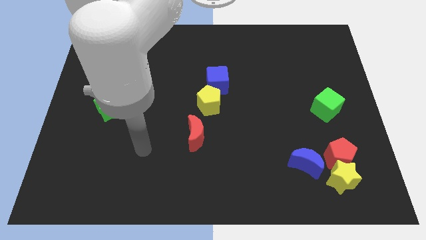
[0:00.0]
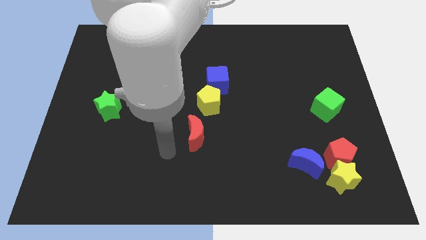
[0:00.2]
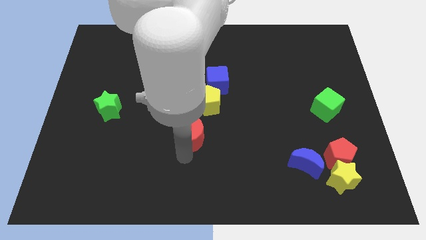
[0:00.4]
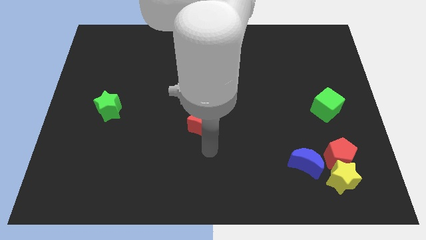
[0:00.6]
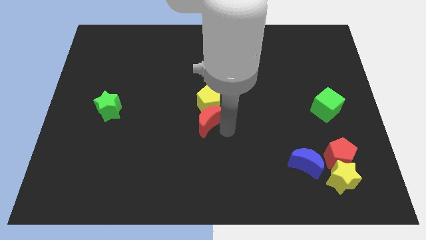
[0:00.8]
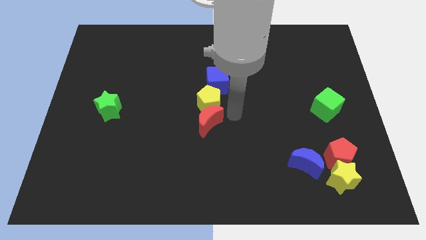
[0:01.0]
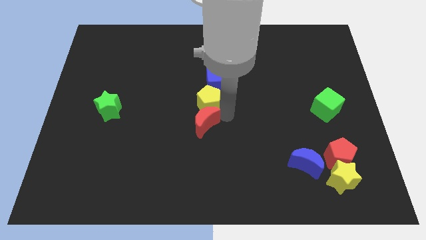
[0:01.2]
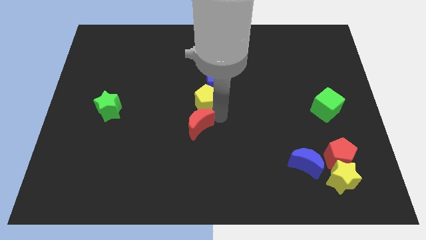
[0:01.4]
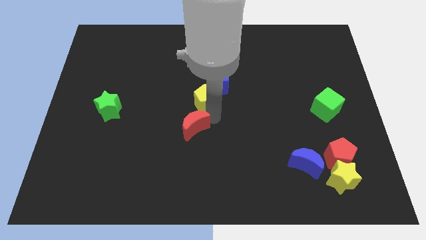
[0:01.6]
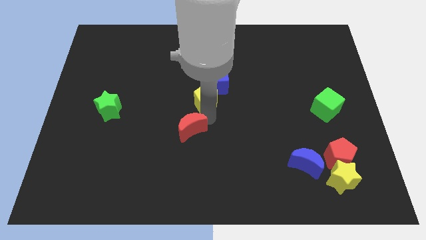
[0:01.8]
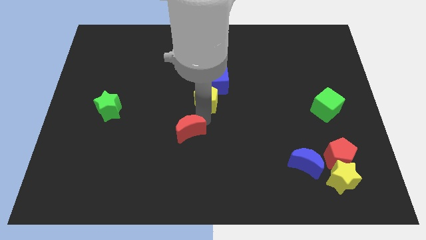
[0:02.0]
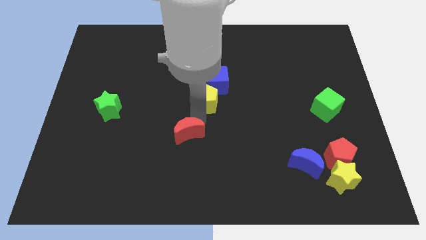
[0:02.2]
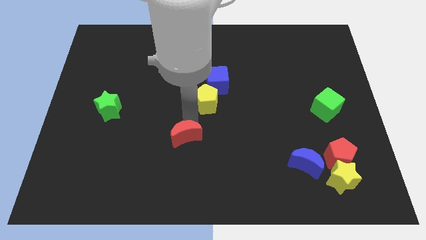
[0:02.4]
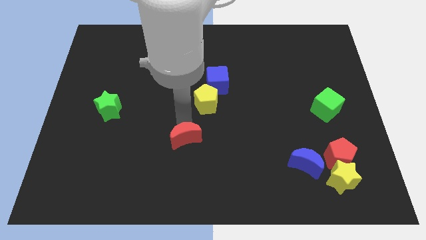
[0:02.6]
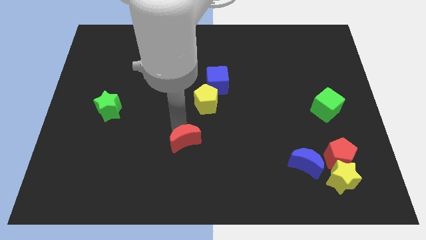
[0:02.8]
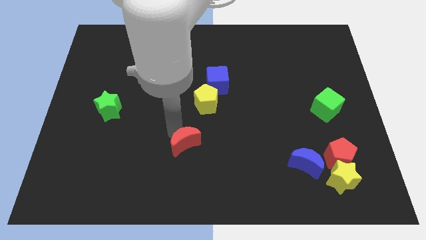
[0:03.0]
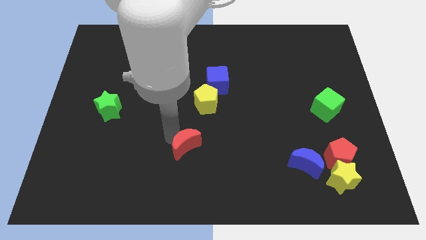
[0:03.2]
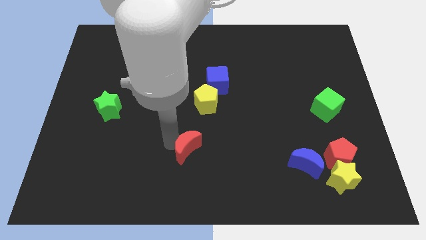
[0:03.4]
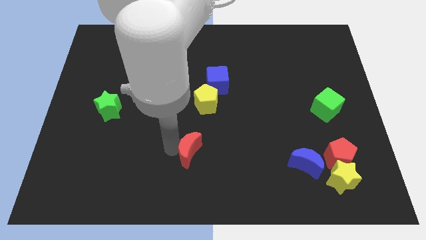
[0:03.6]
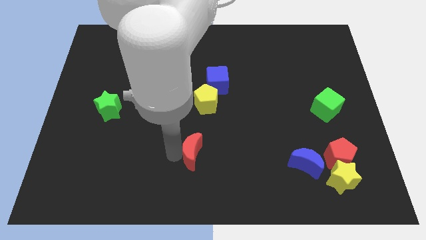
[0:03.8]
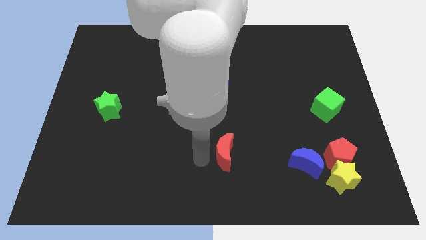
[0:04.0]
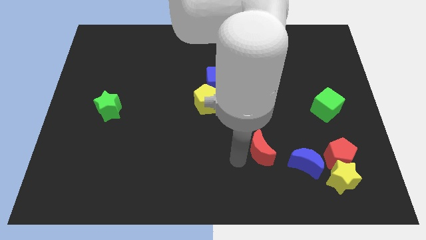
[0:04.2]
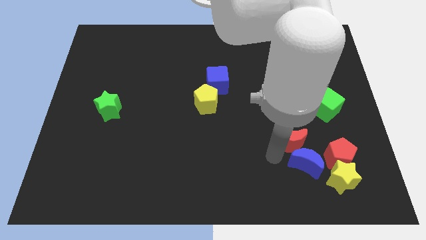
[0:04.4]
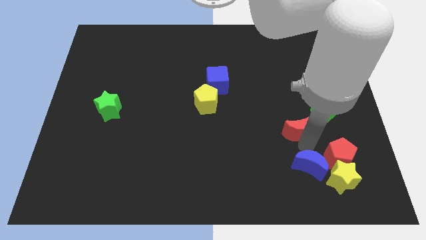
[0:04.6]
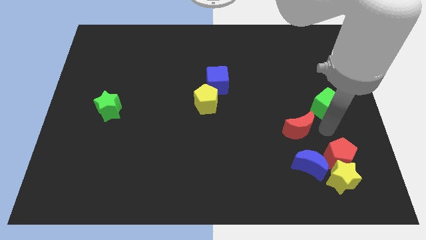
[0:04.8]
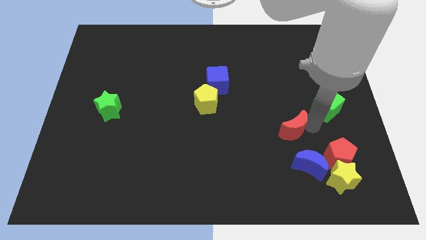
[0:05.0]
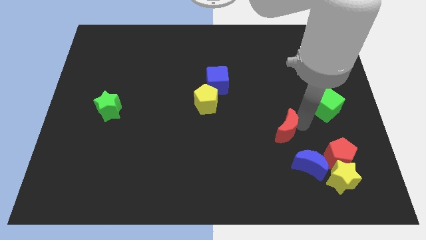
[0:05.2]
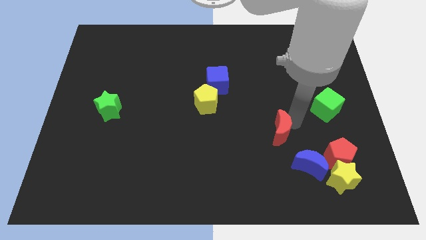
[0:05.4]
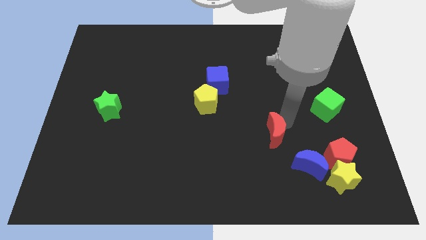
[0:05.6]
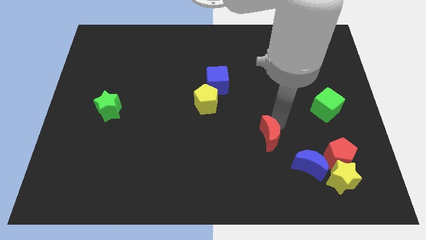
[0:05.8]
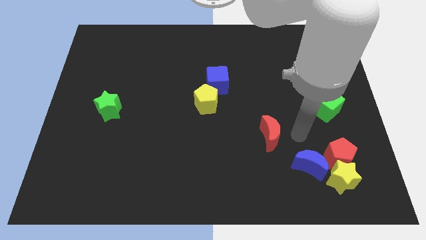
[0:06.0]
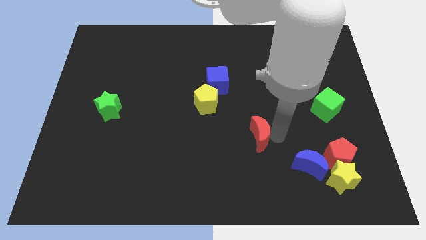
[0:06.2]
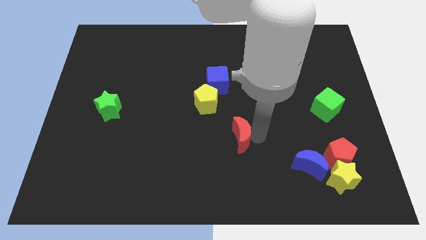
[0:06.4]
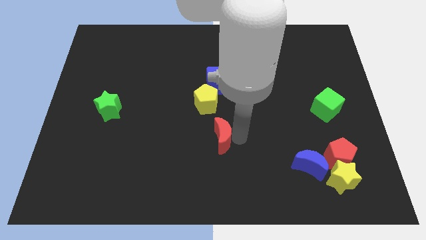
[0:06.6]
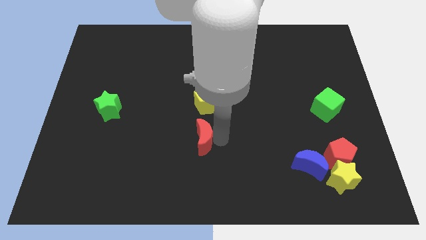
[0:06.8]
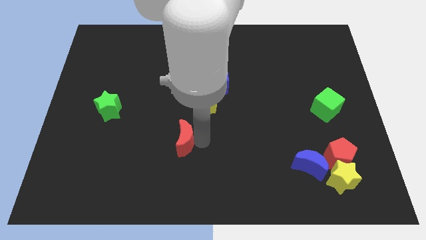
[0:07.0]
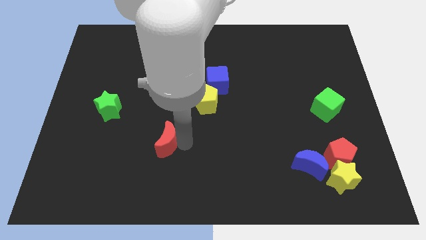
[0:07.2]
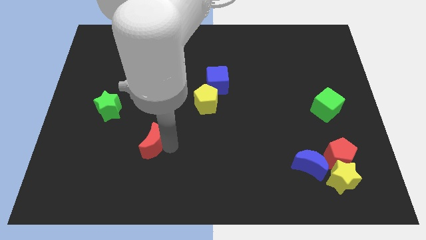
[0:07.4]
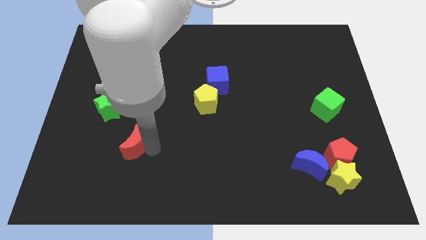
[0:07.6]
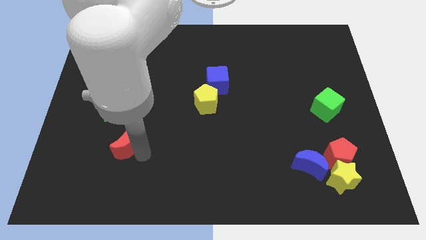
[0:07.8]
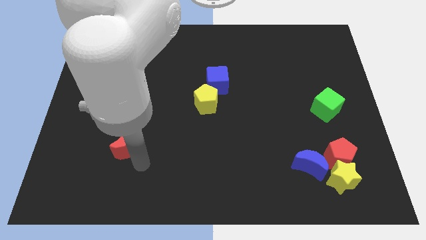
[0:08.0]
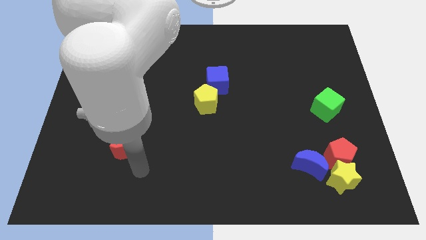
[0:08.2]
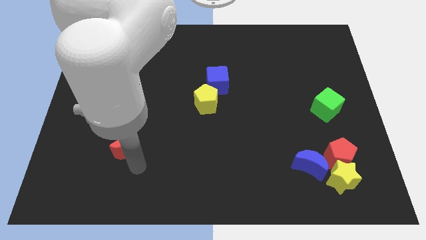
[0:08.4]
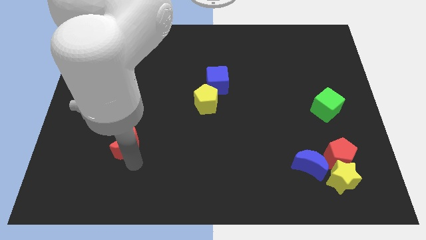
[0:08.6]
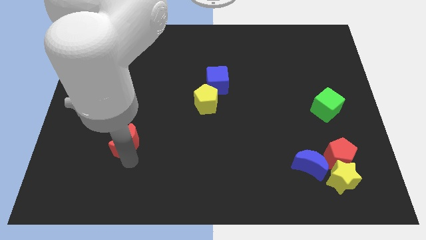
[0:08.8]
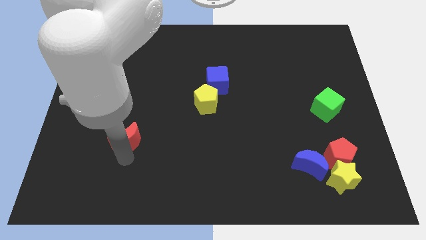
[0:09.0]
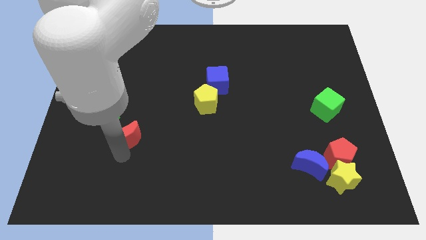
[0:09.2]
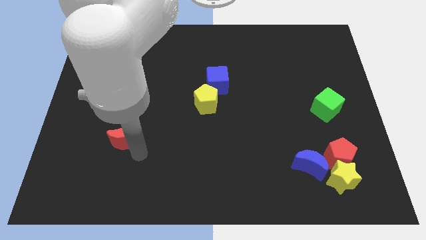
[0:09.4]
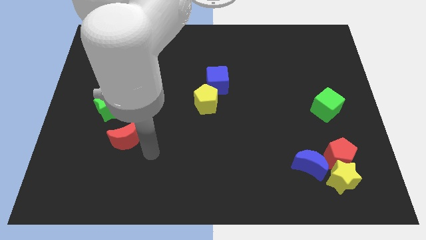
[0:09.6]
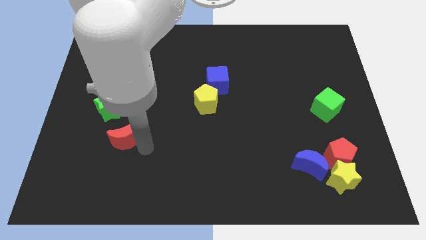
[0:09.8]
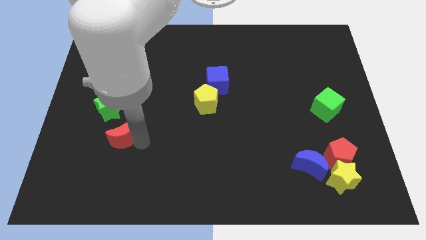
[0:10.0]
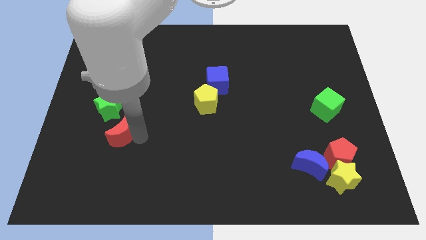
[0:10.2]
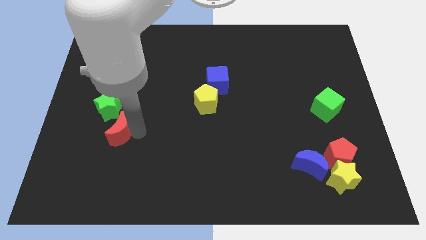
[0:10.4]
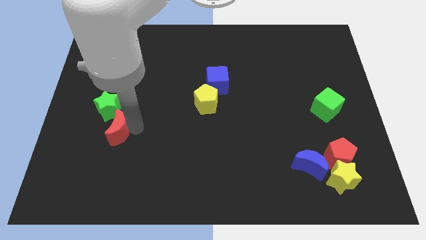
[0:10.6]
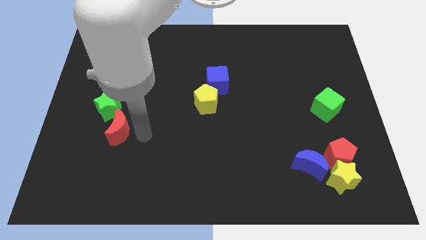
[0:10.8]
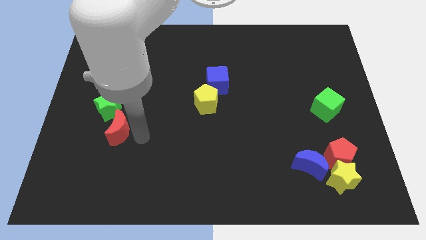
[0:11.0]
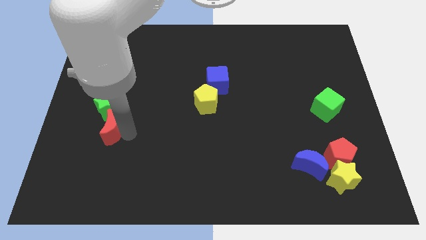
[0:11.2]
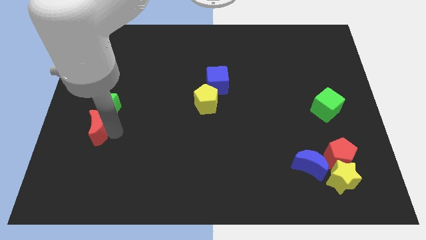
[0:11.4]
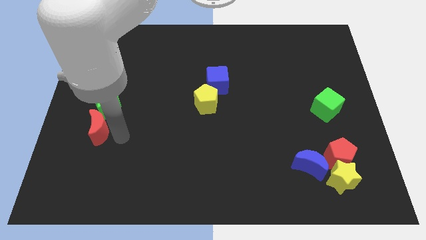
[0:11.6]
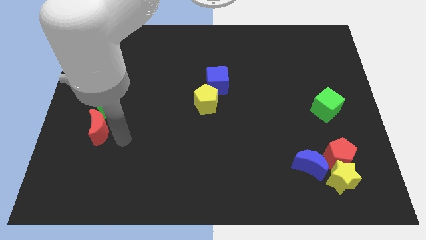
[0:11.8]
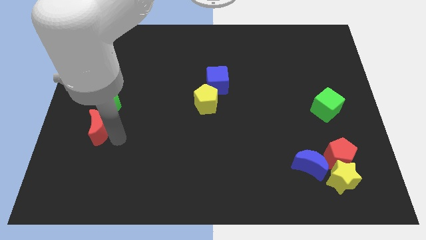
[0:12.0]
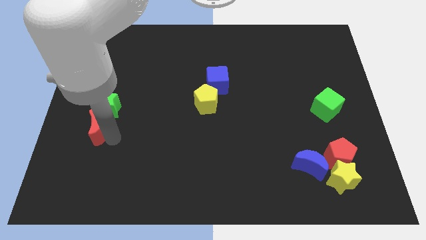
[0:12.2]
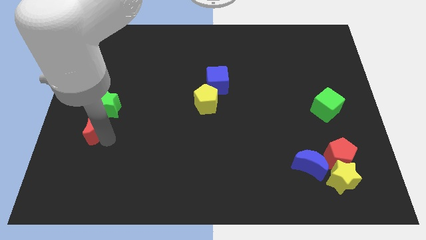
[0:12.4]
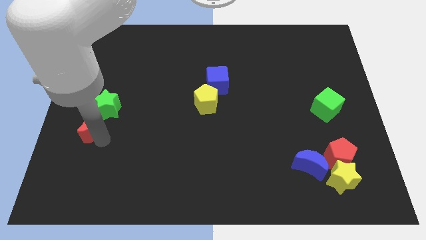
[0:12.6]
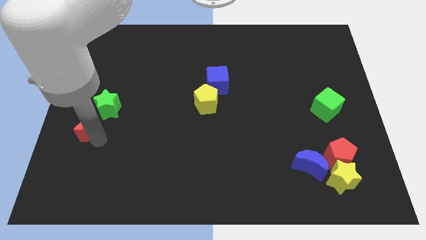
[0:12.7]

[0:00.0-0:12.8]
slide the red moon to the left side
